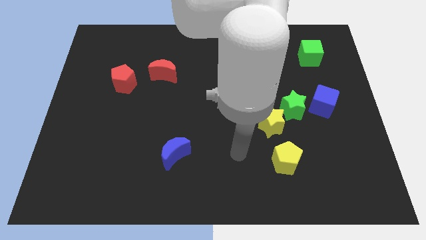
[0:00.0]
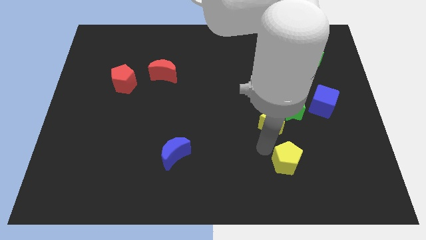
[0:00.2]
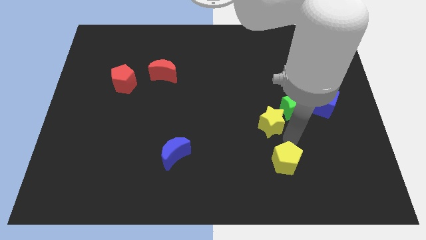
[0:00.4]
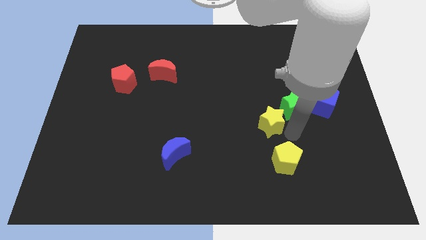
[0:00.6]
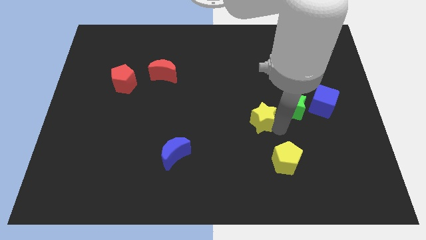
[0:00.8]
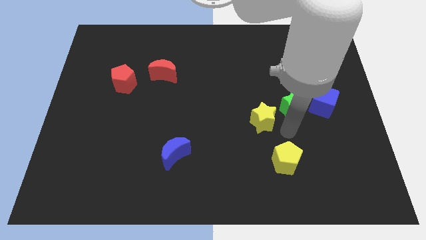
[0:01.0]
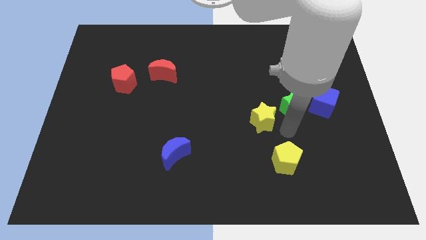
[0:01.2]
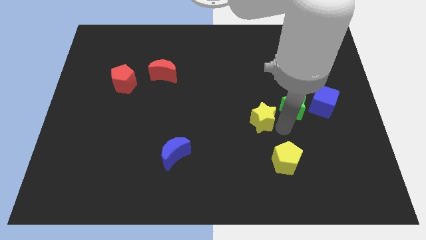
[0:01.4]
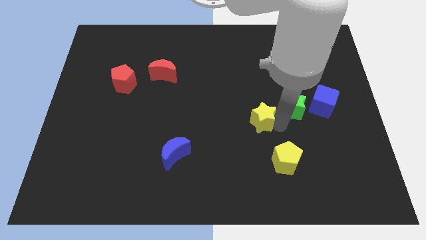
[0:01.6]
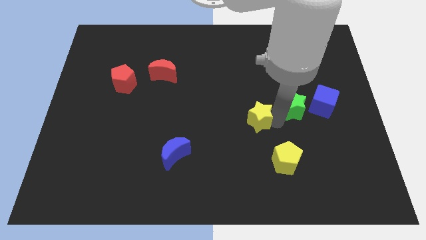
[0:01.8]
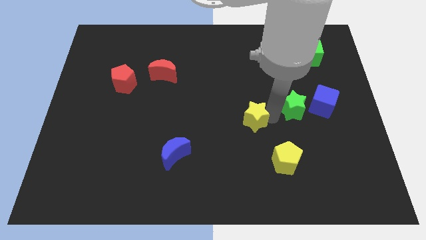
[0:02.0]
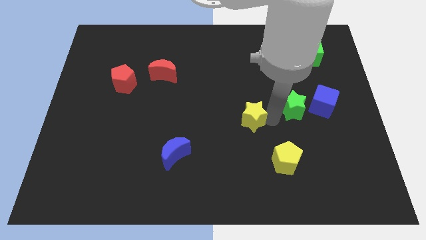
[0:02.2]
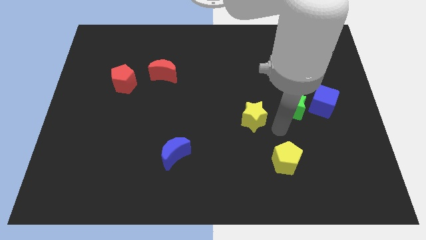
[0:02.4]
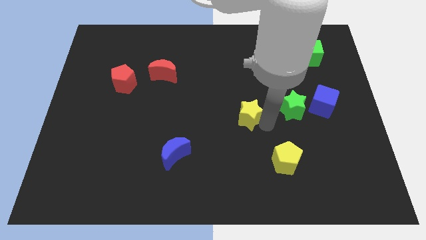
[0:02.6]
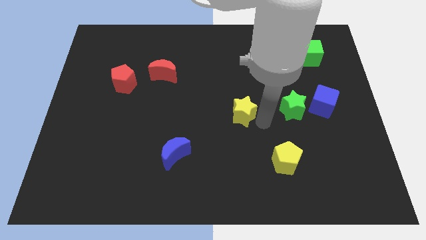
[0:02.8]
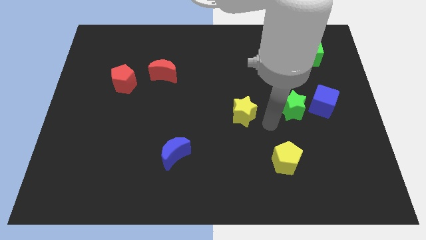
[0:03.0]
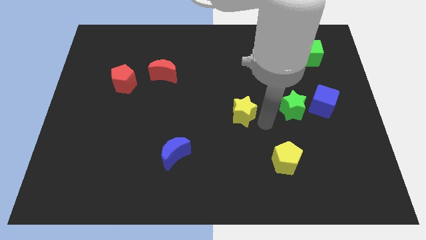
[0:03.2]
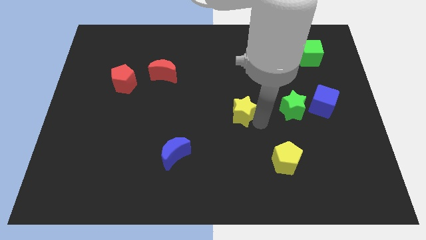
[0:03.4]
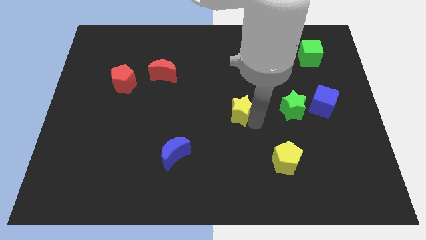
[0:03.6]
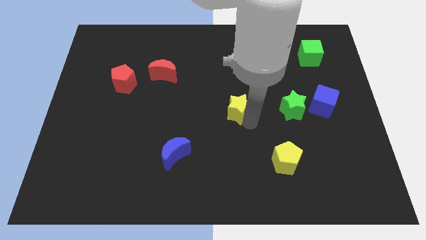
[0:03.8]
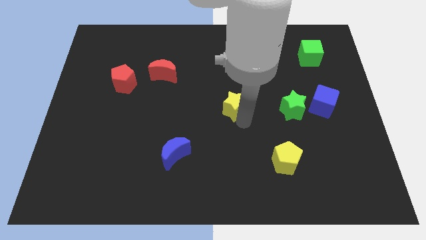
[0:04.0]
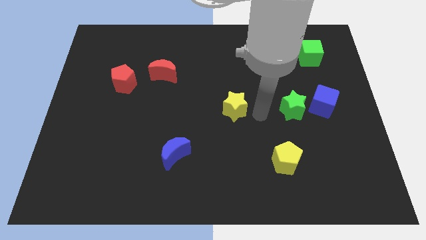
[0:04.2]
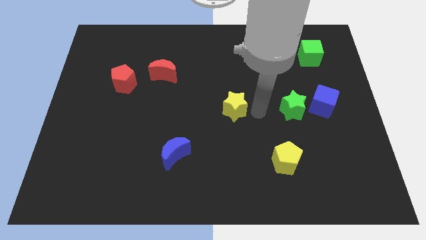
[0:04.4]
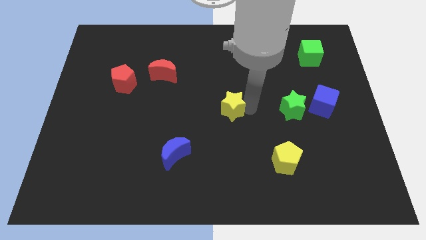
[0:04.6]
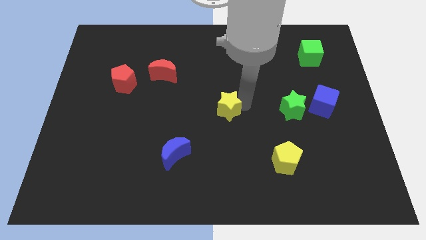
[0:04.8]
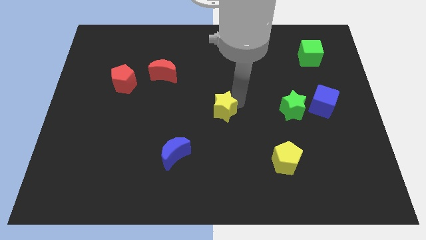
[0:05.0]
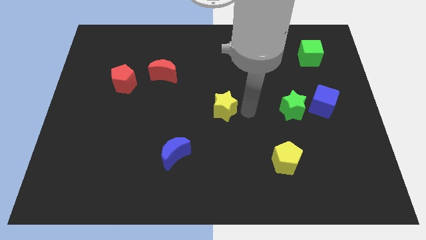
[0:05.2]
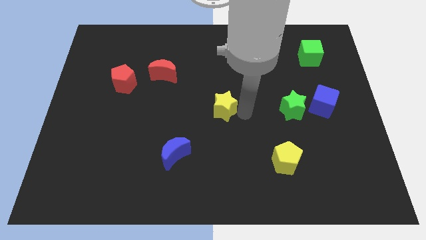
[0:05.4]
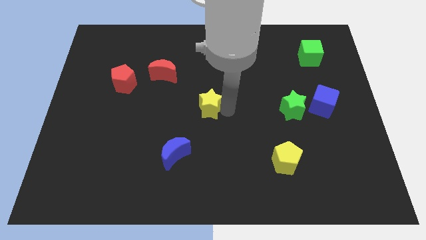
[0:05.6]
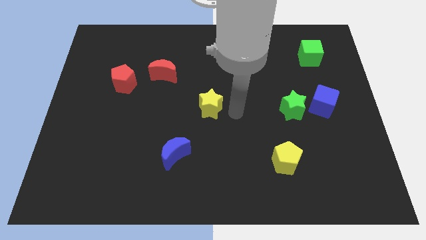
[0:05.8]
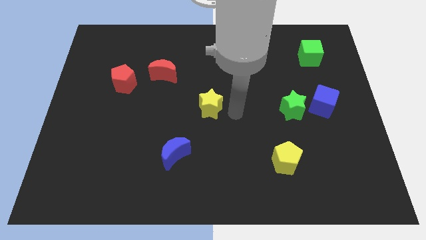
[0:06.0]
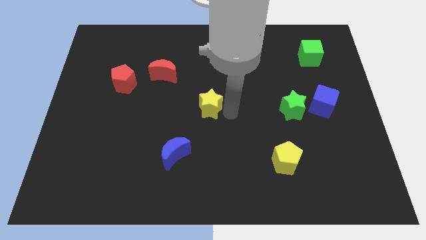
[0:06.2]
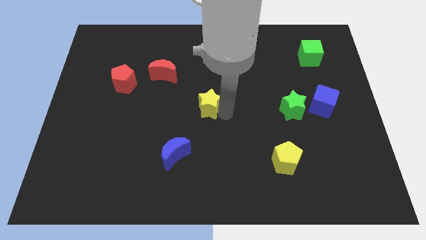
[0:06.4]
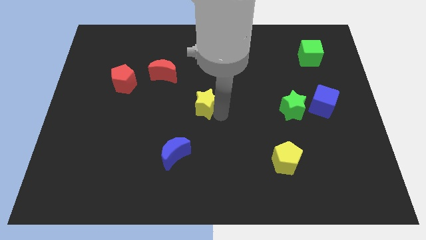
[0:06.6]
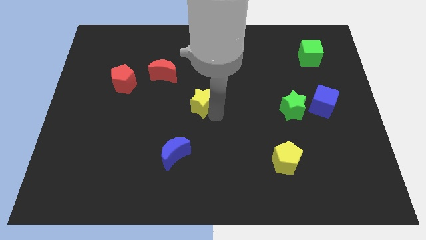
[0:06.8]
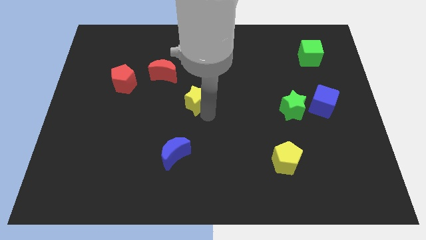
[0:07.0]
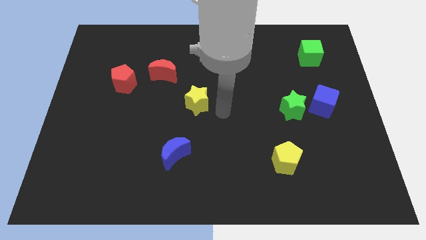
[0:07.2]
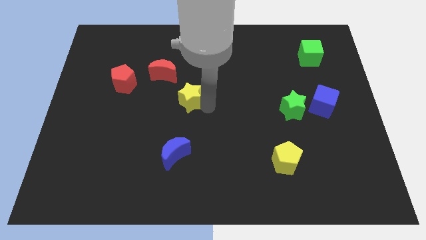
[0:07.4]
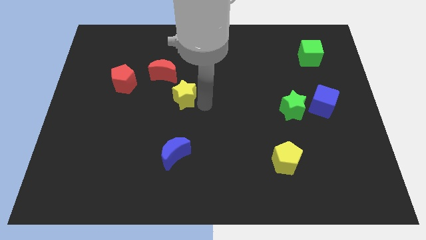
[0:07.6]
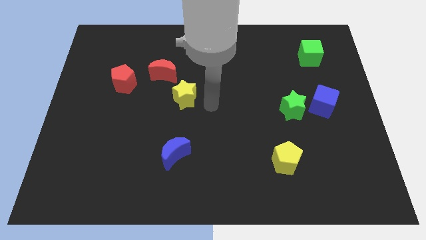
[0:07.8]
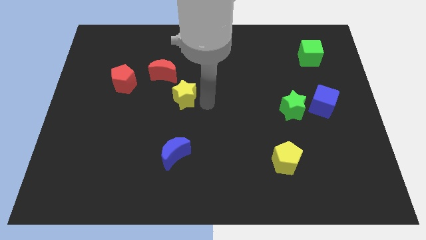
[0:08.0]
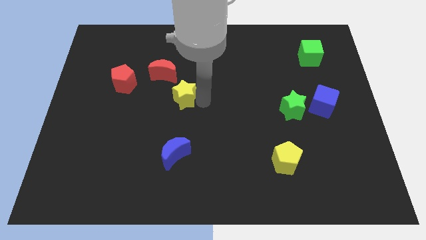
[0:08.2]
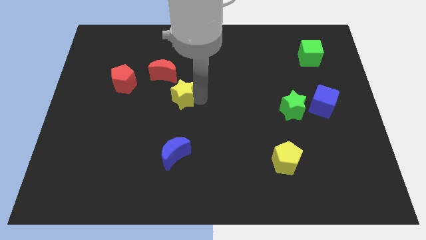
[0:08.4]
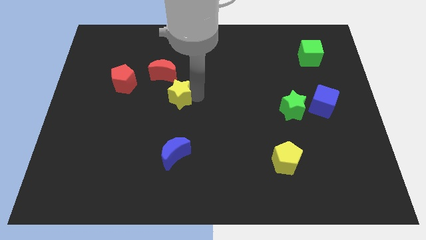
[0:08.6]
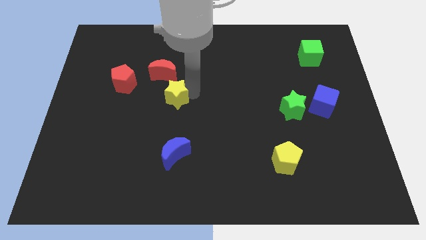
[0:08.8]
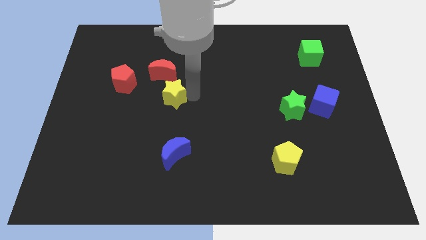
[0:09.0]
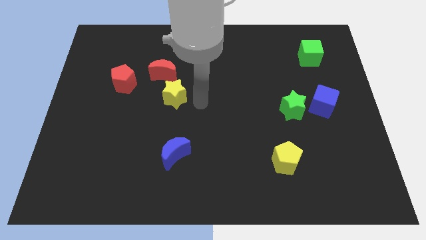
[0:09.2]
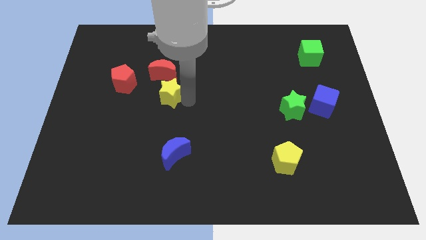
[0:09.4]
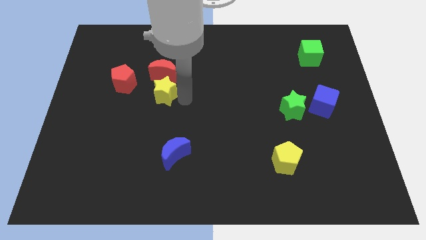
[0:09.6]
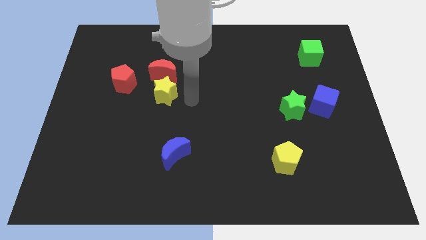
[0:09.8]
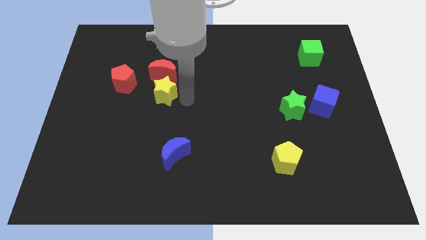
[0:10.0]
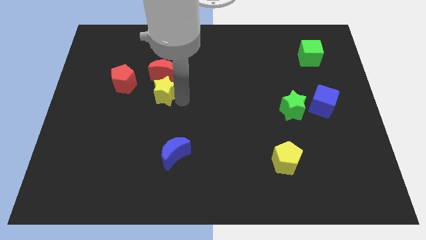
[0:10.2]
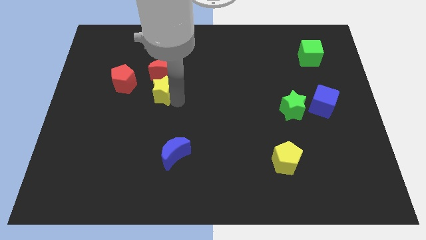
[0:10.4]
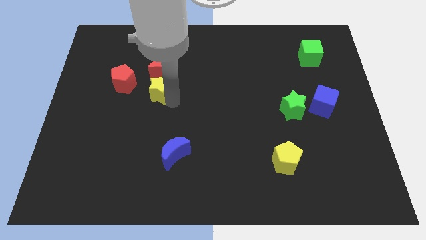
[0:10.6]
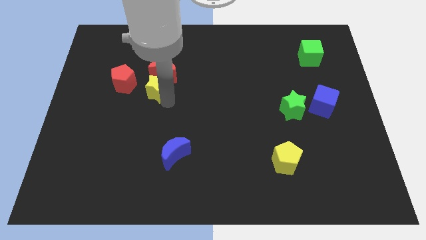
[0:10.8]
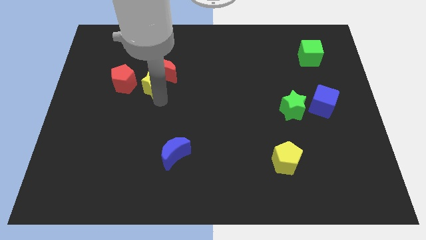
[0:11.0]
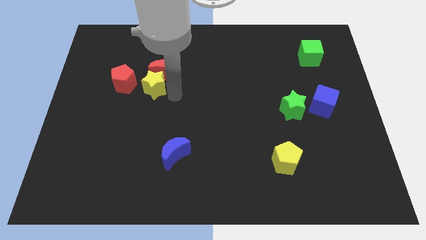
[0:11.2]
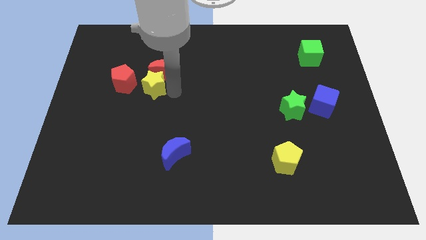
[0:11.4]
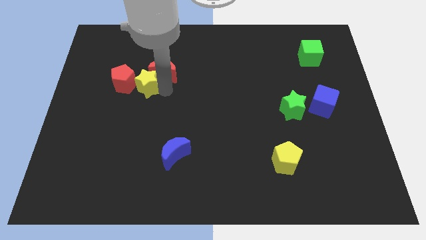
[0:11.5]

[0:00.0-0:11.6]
slide the yellow star next to the red pentagon
